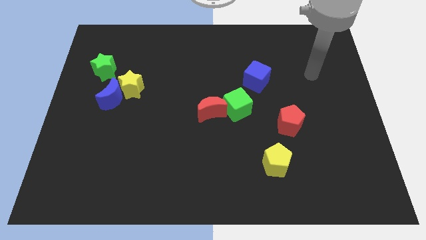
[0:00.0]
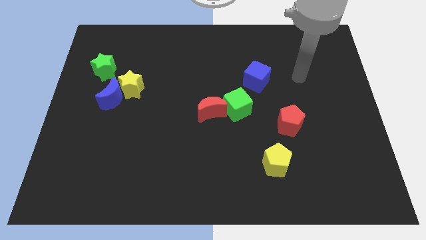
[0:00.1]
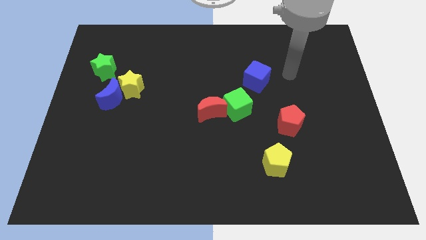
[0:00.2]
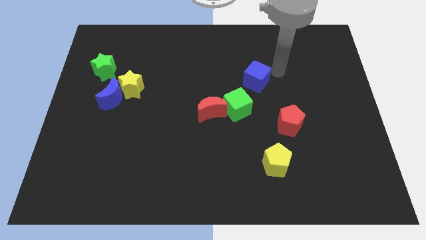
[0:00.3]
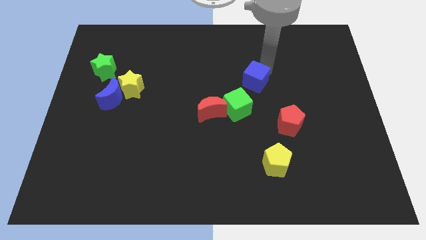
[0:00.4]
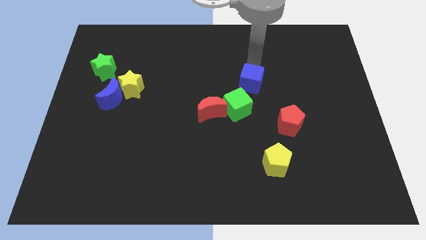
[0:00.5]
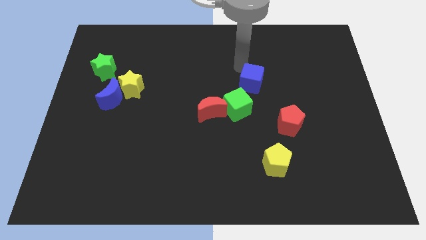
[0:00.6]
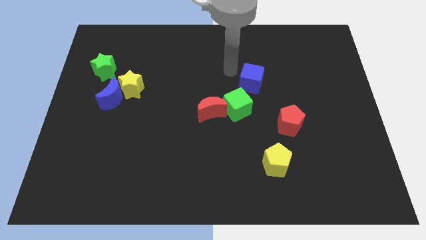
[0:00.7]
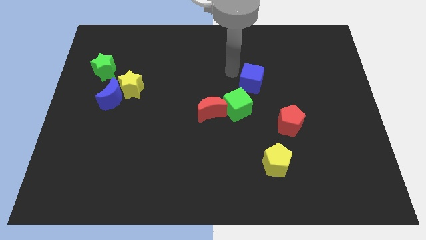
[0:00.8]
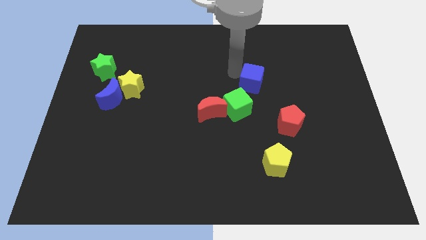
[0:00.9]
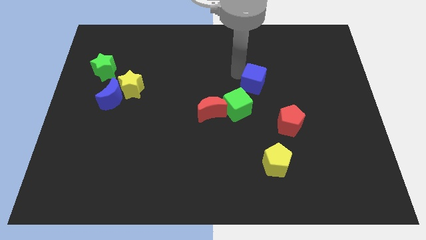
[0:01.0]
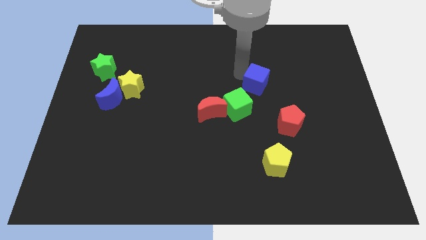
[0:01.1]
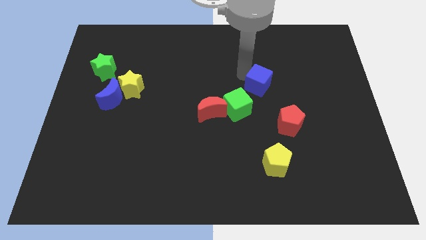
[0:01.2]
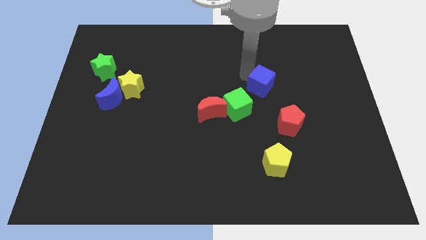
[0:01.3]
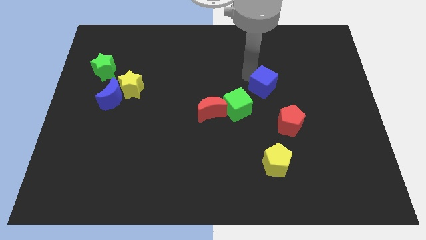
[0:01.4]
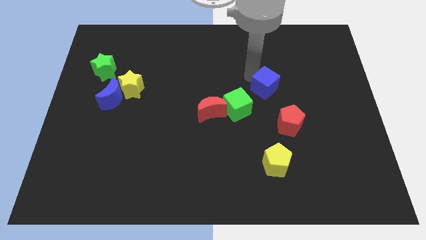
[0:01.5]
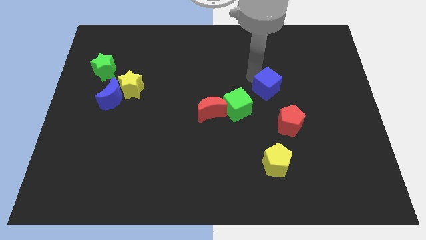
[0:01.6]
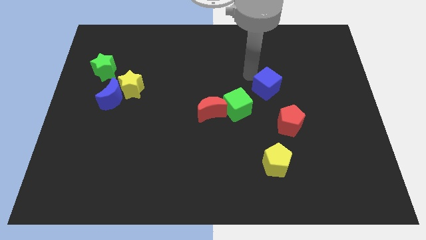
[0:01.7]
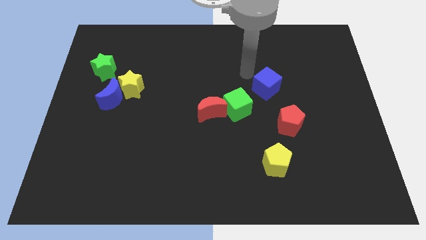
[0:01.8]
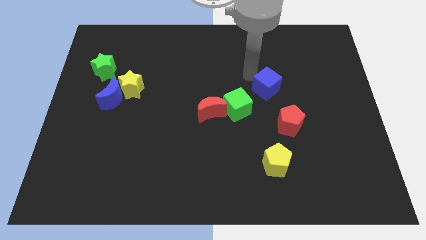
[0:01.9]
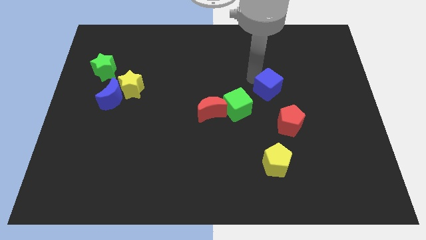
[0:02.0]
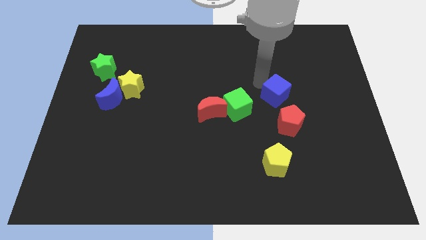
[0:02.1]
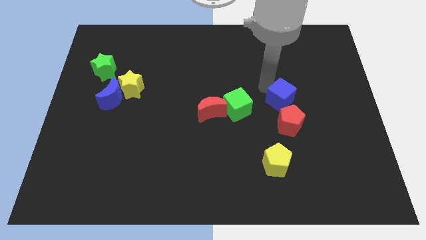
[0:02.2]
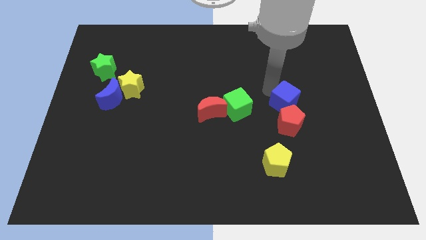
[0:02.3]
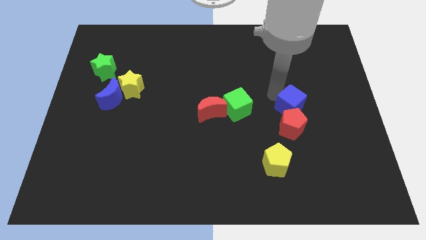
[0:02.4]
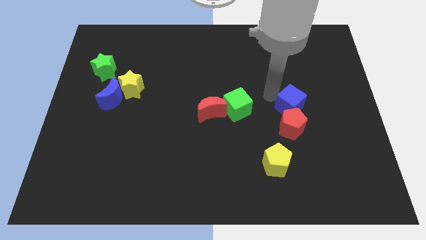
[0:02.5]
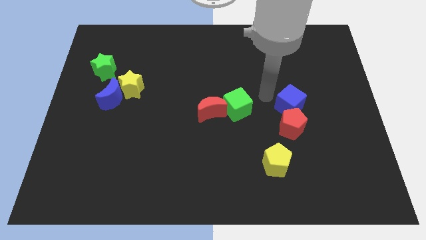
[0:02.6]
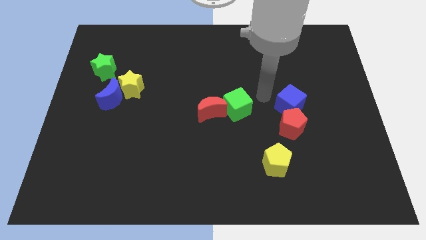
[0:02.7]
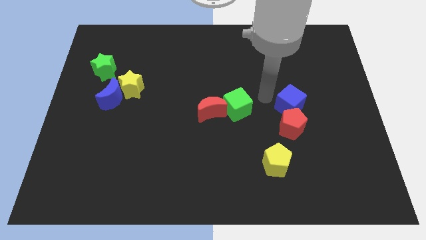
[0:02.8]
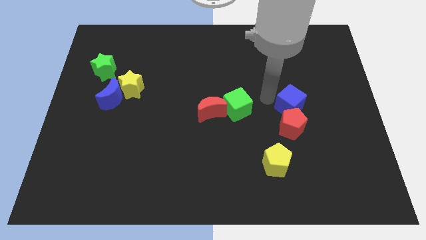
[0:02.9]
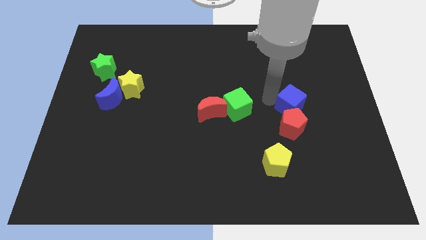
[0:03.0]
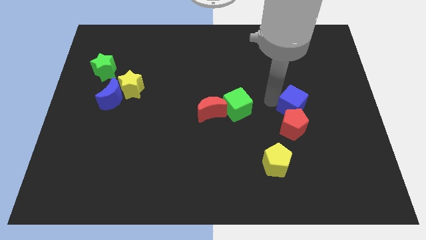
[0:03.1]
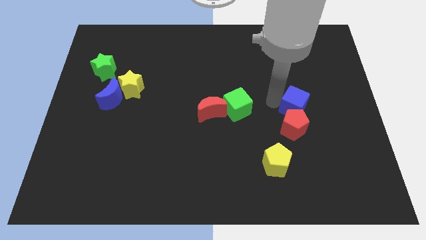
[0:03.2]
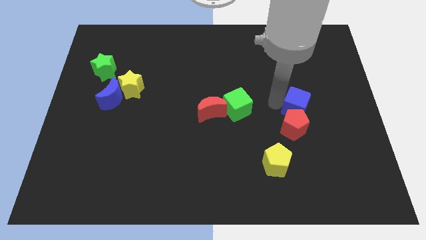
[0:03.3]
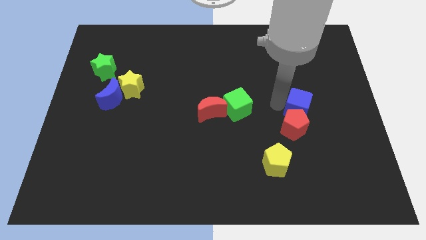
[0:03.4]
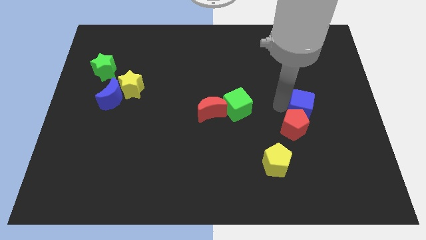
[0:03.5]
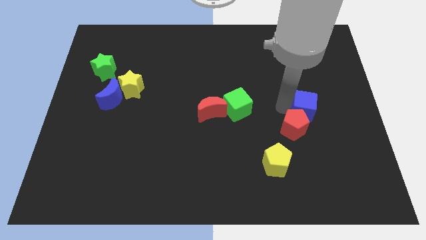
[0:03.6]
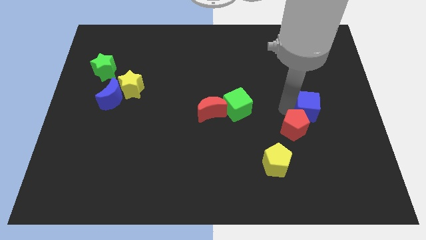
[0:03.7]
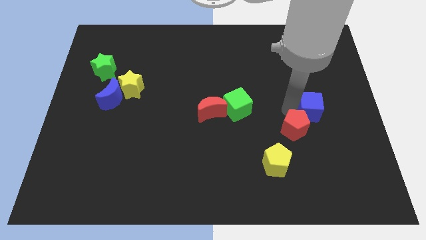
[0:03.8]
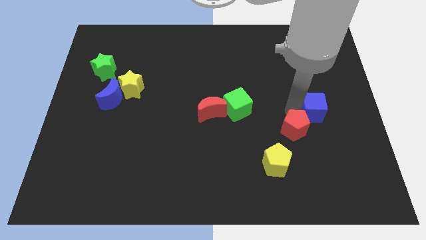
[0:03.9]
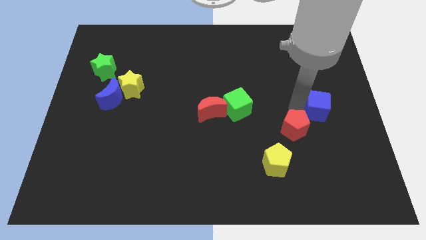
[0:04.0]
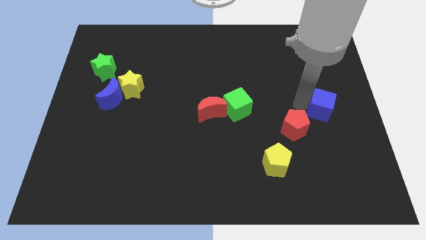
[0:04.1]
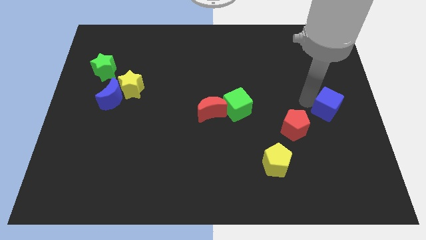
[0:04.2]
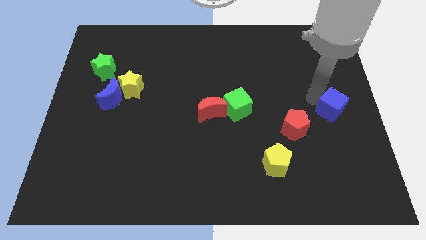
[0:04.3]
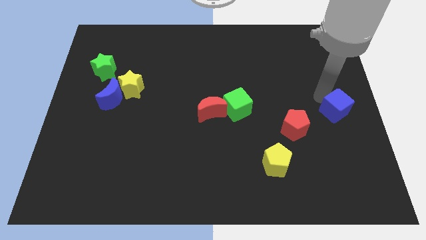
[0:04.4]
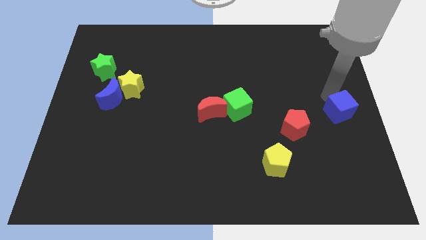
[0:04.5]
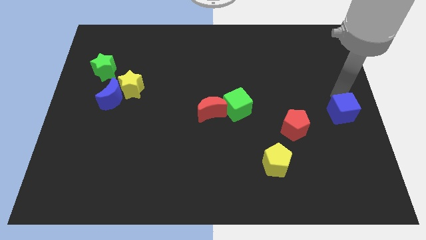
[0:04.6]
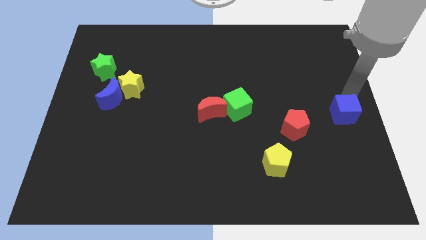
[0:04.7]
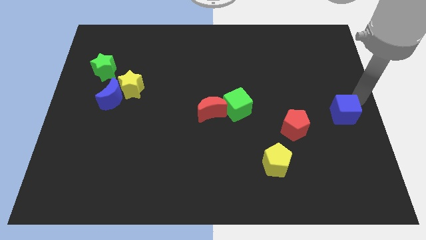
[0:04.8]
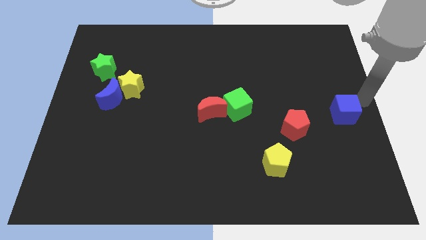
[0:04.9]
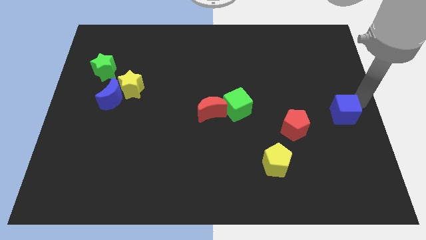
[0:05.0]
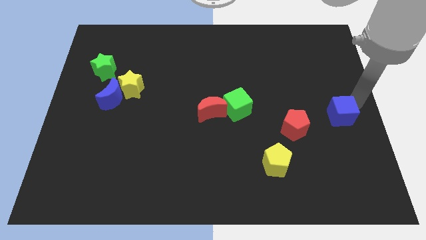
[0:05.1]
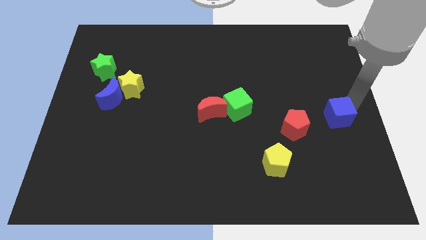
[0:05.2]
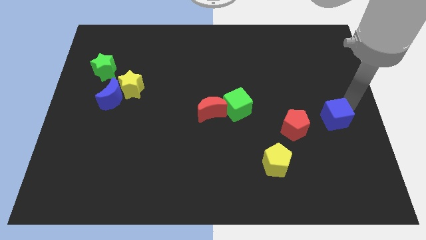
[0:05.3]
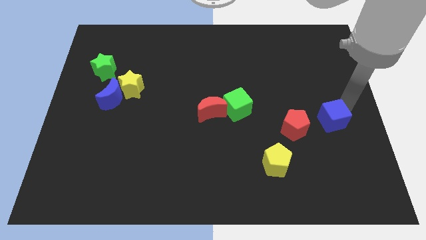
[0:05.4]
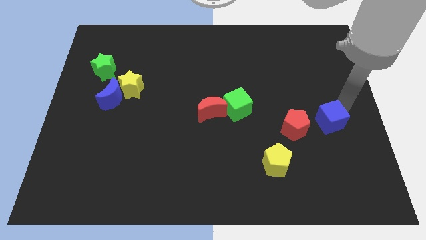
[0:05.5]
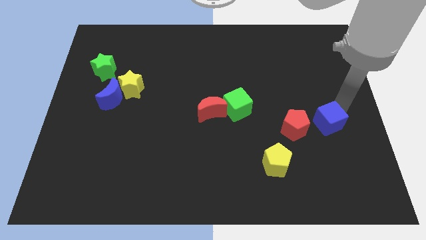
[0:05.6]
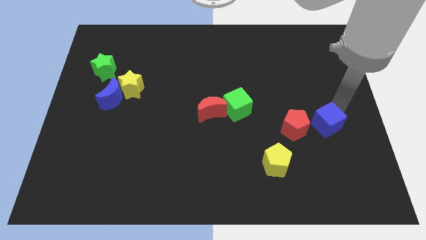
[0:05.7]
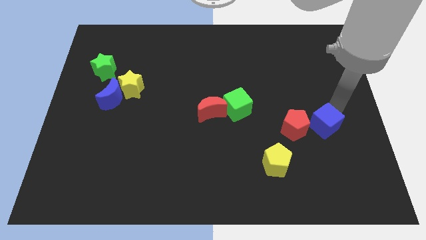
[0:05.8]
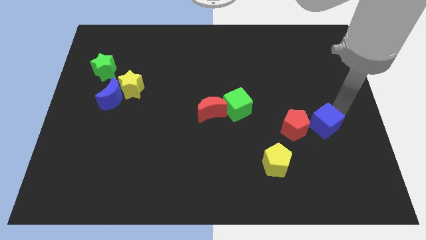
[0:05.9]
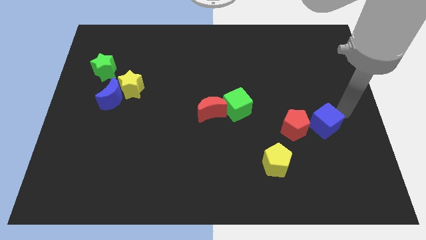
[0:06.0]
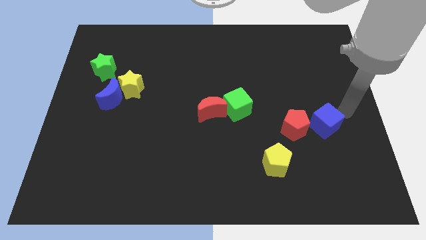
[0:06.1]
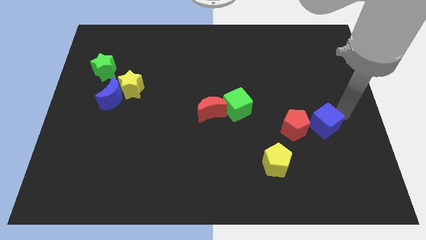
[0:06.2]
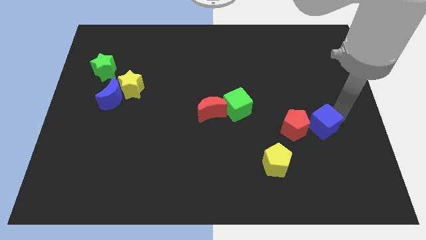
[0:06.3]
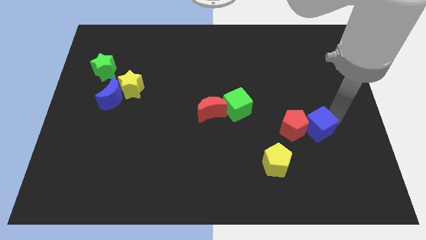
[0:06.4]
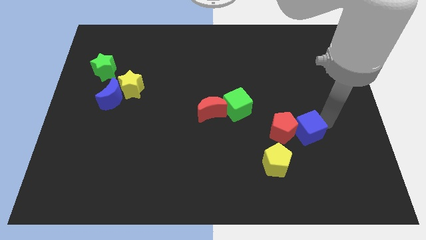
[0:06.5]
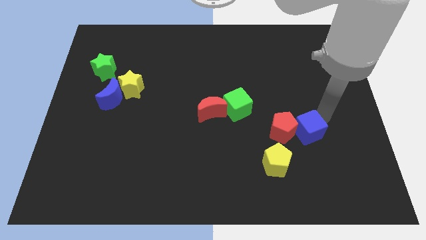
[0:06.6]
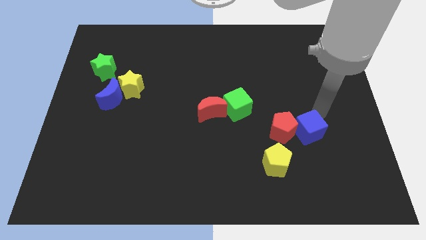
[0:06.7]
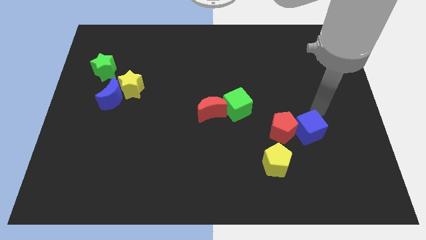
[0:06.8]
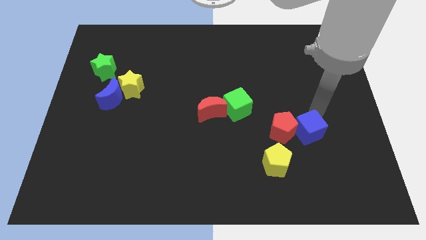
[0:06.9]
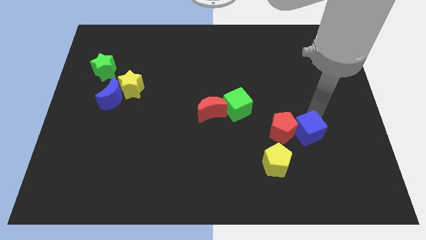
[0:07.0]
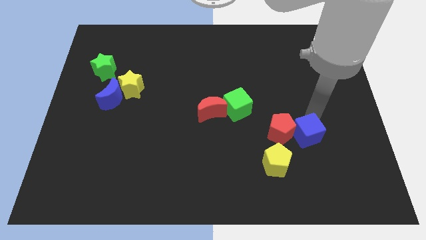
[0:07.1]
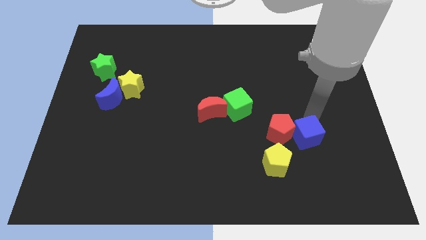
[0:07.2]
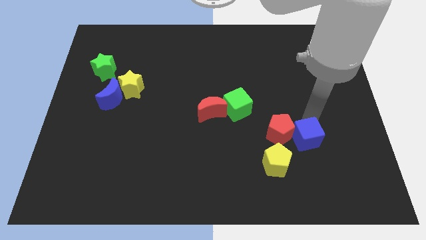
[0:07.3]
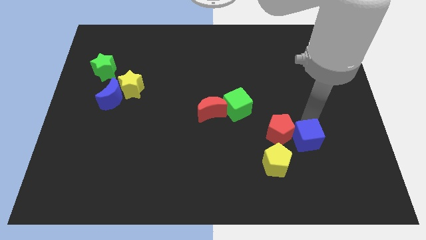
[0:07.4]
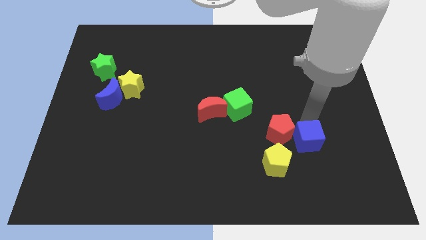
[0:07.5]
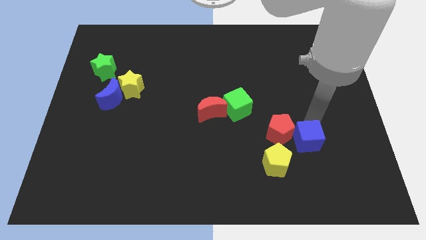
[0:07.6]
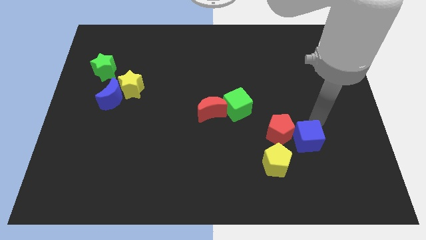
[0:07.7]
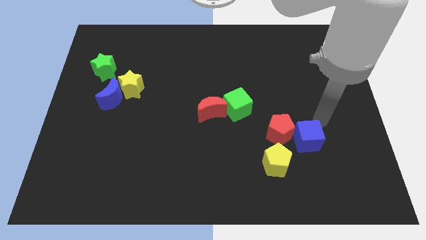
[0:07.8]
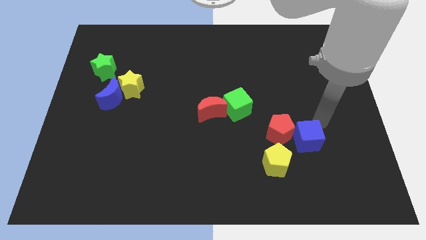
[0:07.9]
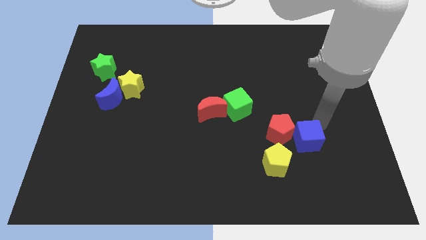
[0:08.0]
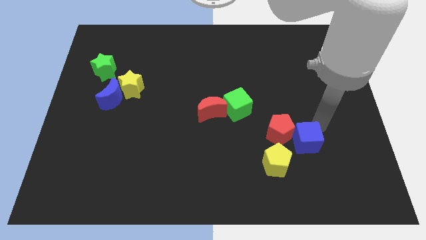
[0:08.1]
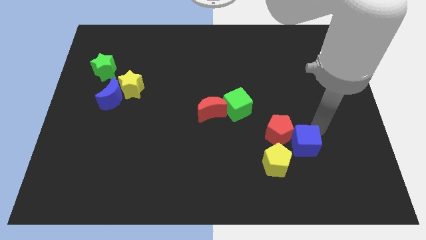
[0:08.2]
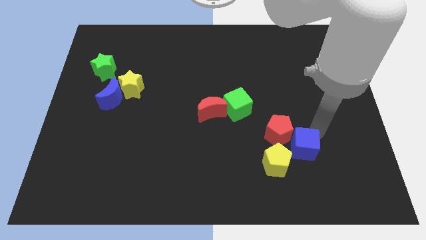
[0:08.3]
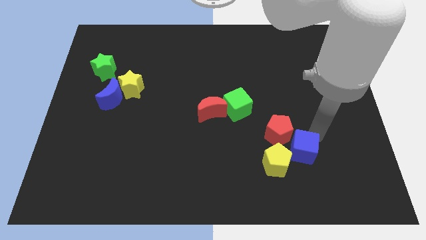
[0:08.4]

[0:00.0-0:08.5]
push the blue cube to the bottom side of the red pentagon
